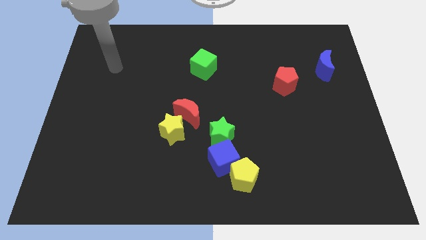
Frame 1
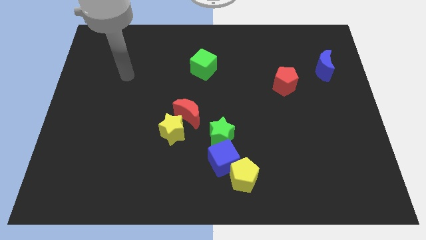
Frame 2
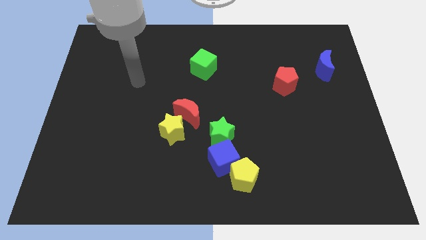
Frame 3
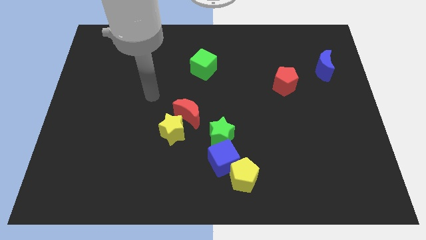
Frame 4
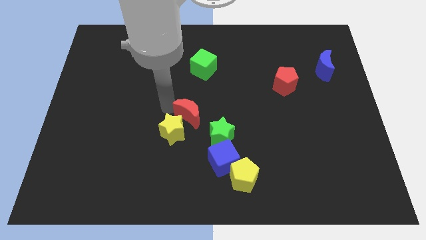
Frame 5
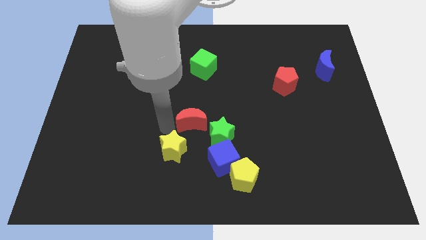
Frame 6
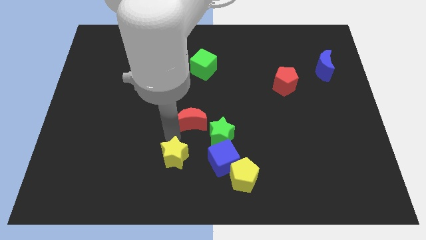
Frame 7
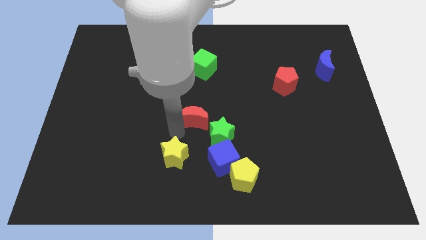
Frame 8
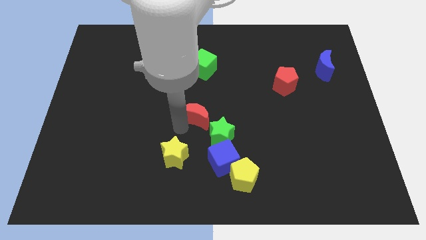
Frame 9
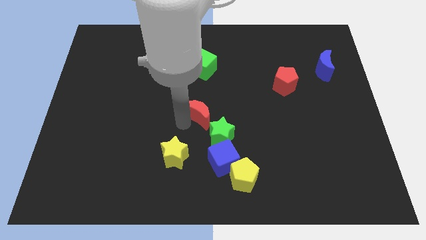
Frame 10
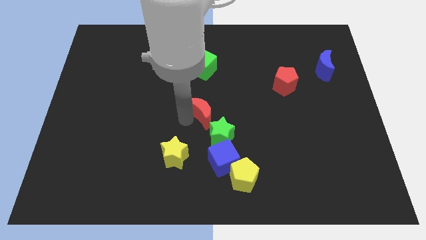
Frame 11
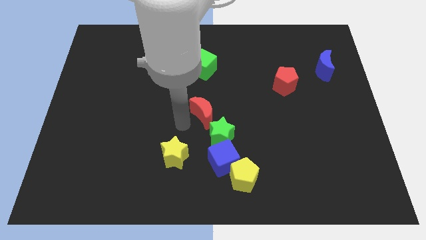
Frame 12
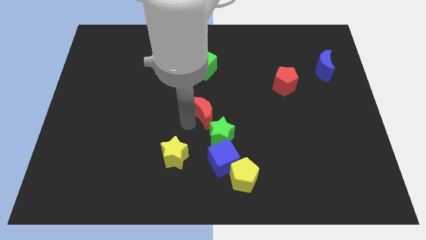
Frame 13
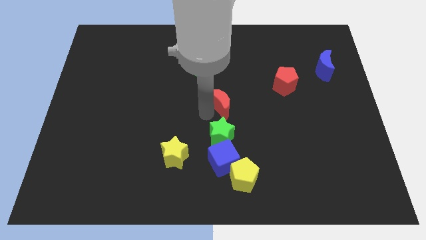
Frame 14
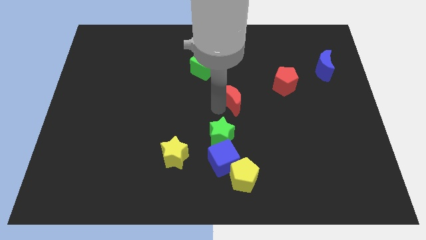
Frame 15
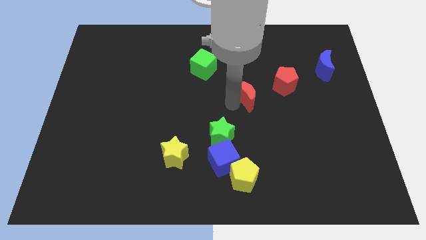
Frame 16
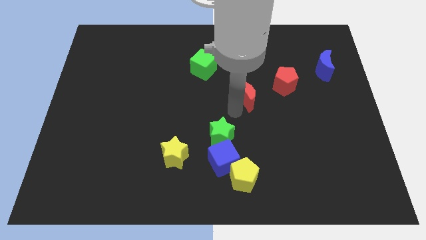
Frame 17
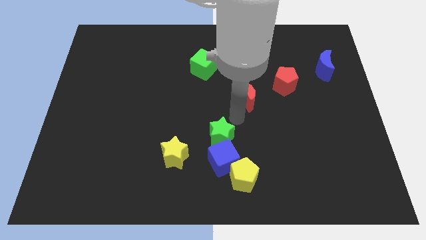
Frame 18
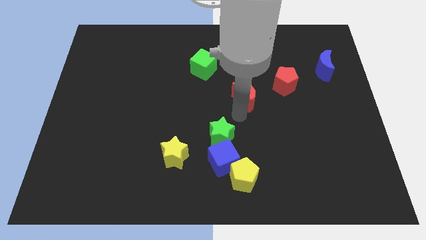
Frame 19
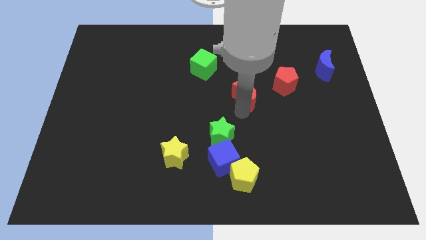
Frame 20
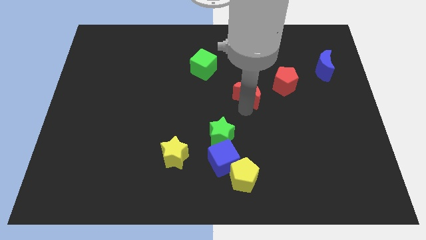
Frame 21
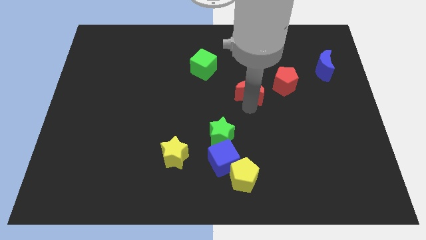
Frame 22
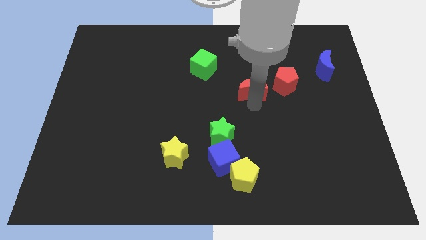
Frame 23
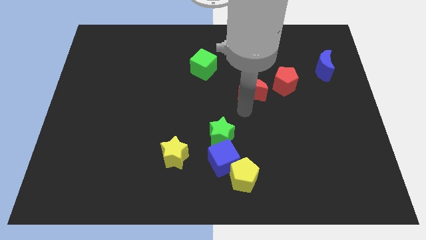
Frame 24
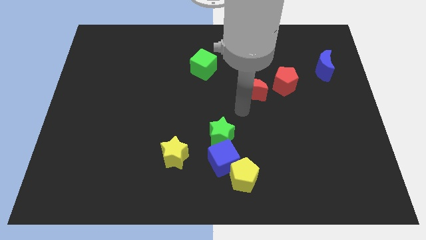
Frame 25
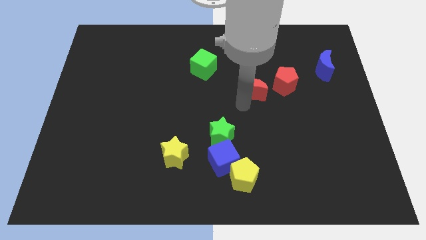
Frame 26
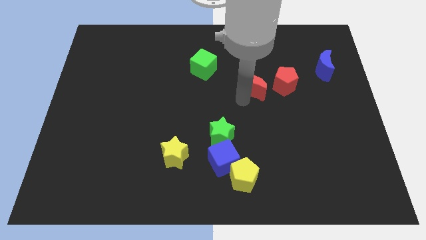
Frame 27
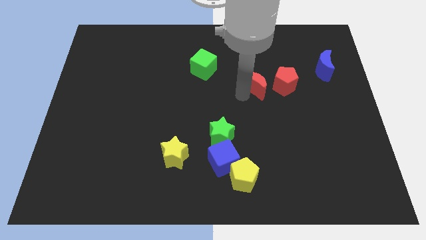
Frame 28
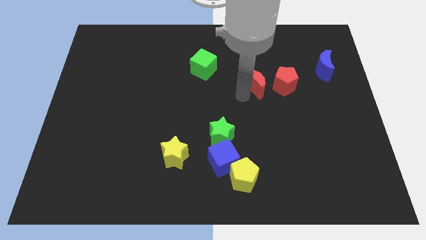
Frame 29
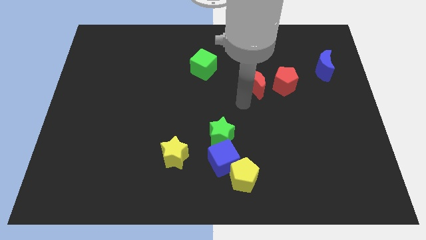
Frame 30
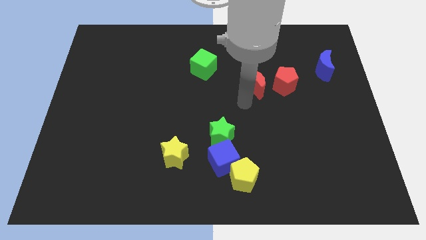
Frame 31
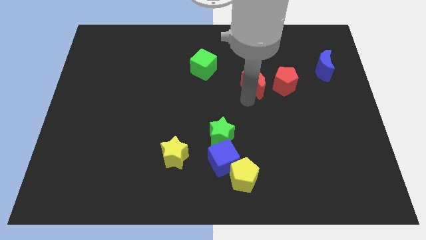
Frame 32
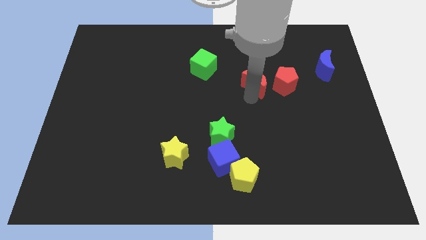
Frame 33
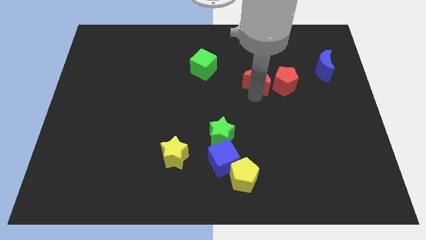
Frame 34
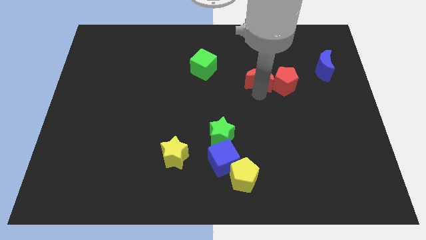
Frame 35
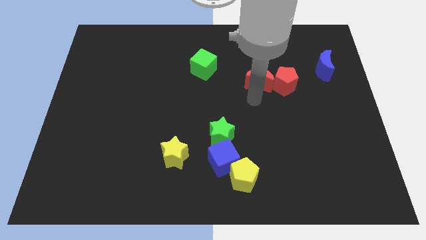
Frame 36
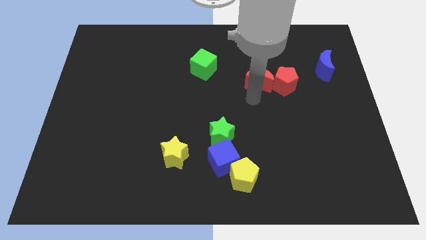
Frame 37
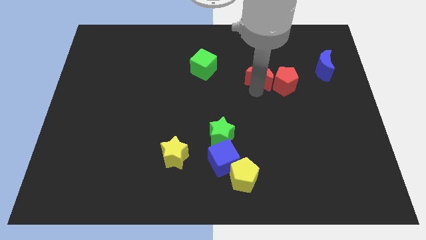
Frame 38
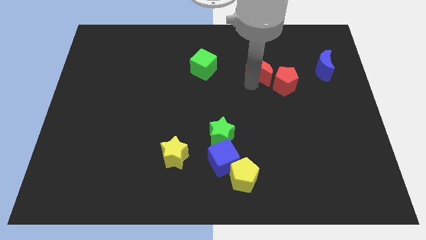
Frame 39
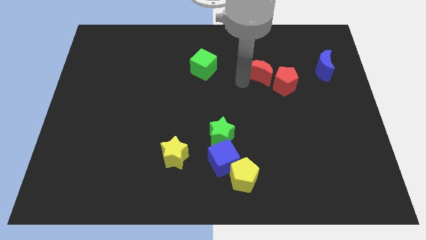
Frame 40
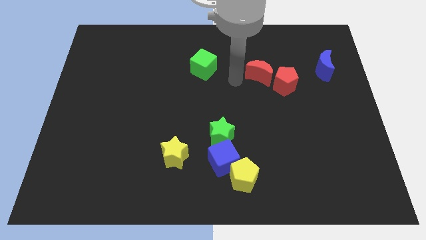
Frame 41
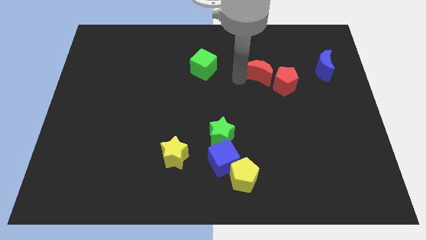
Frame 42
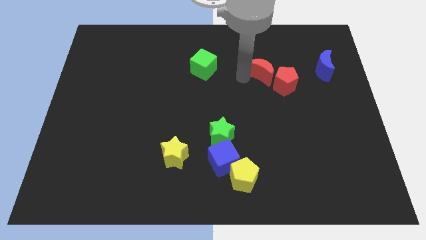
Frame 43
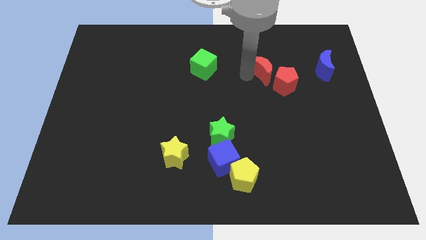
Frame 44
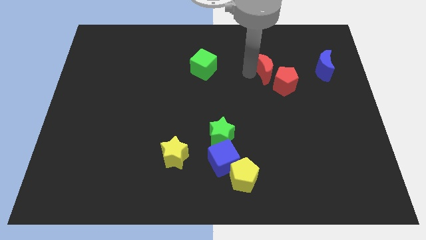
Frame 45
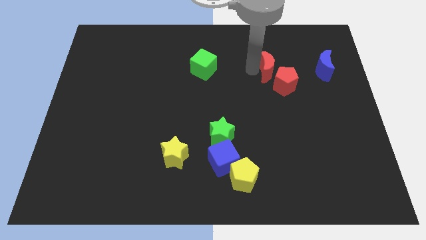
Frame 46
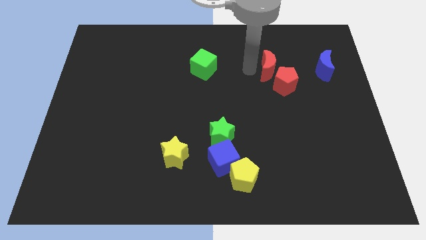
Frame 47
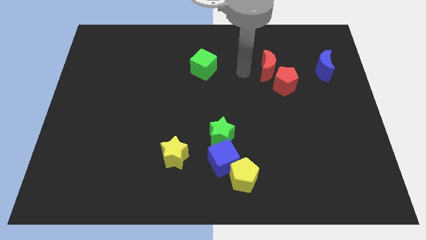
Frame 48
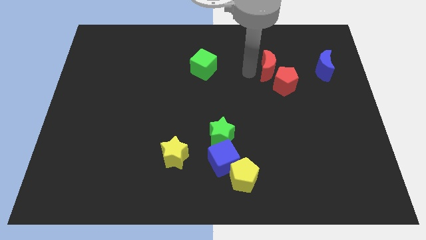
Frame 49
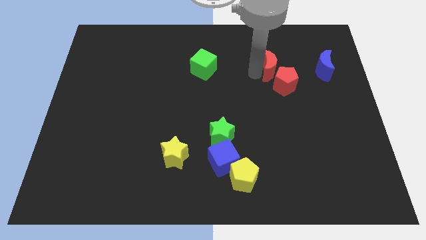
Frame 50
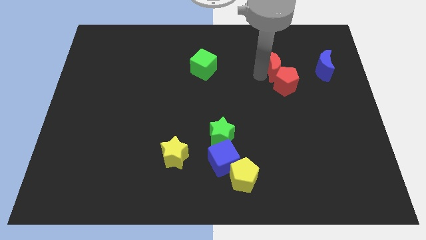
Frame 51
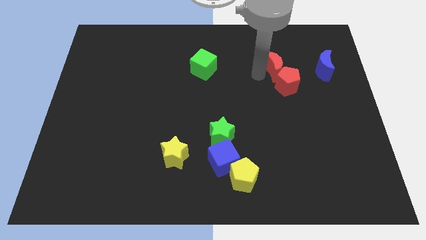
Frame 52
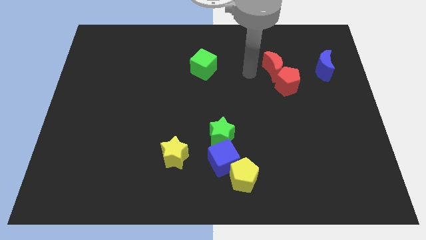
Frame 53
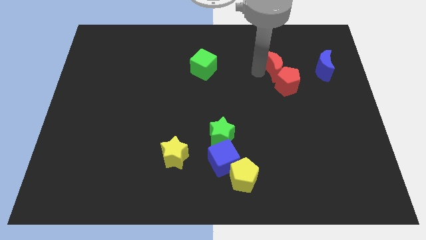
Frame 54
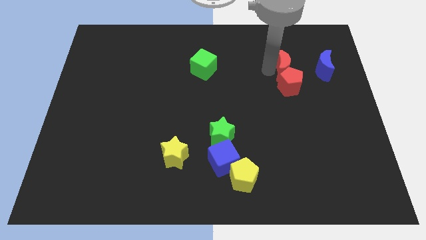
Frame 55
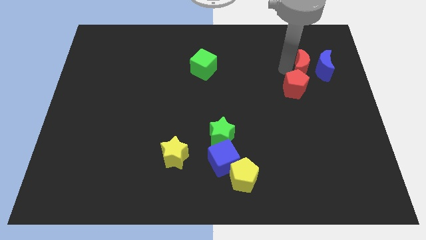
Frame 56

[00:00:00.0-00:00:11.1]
move the red moon to the blue moon

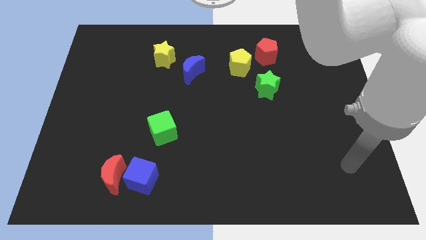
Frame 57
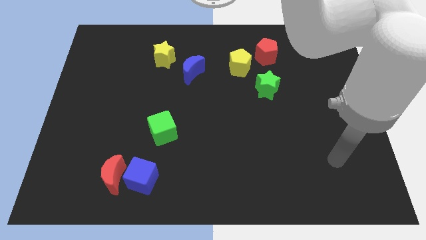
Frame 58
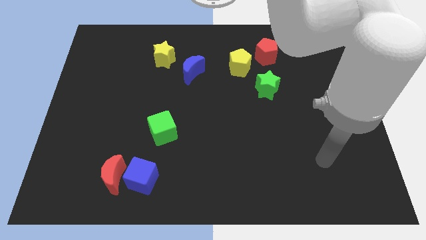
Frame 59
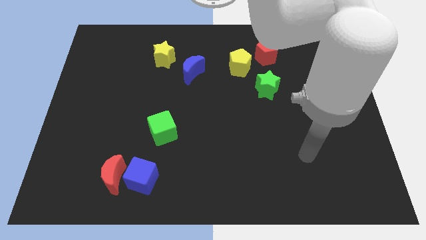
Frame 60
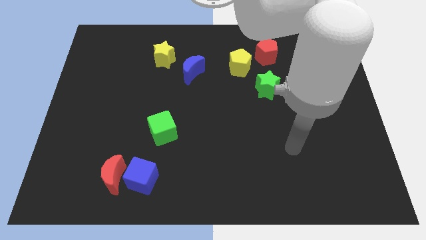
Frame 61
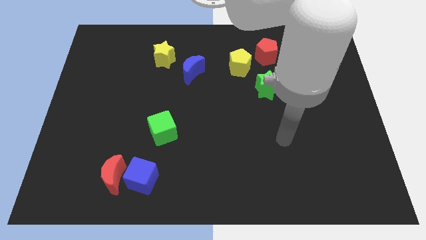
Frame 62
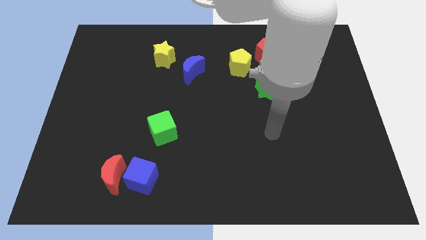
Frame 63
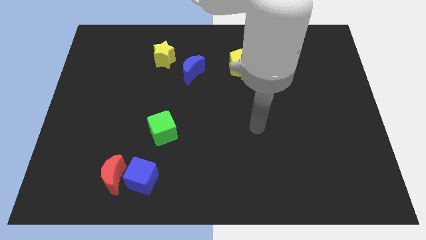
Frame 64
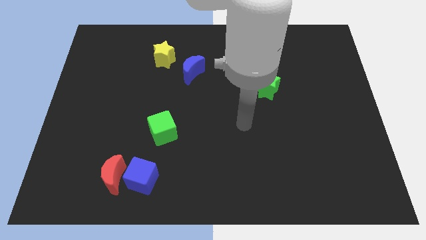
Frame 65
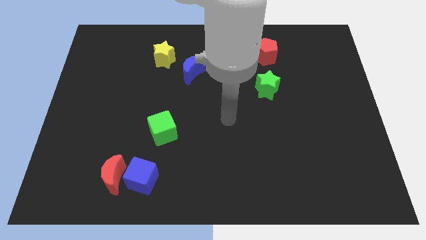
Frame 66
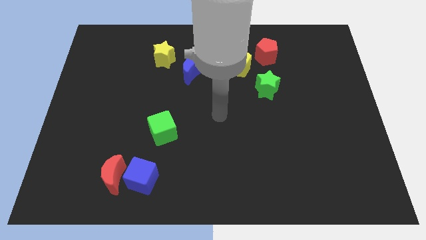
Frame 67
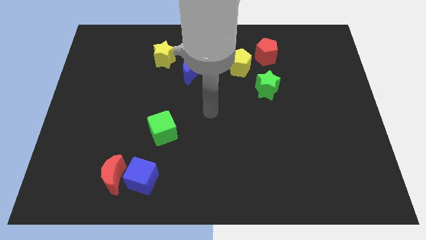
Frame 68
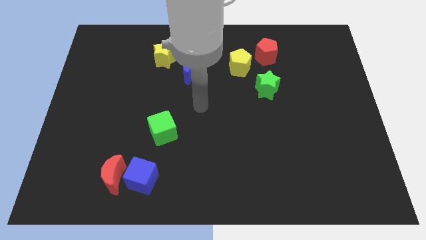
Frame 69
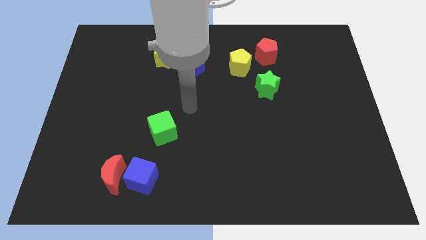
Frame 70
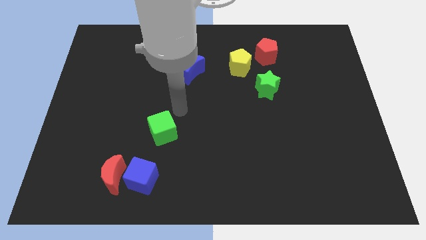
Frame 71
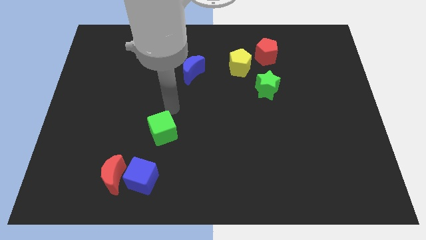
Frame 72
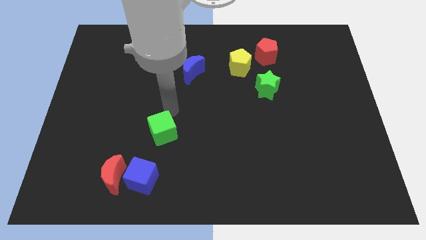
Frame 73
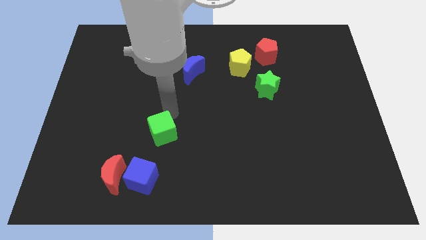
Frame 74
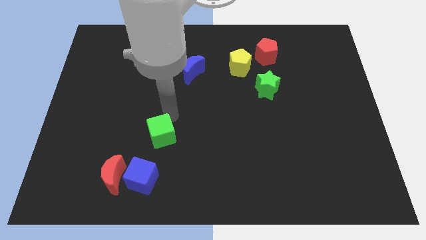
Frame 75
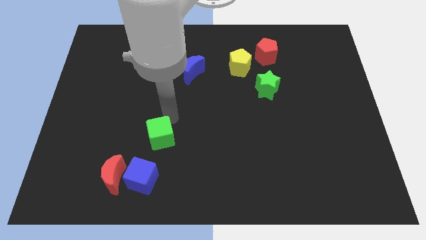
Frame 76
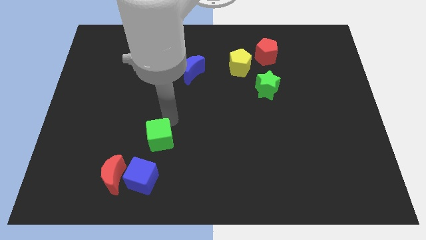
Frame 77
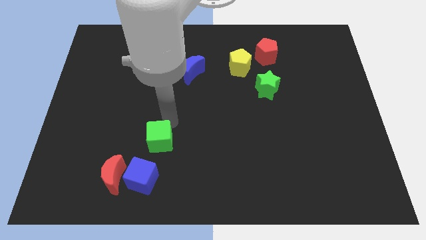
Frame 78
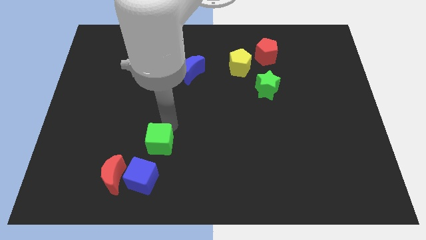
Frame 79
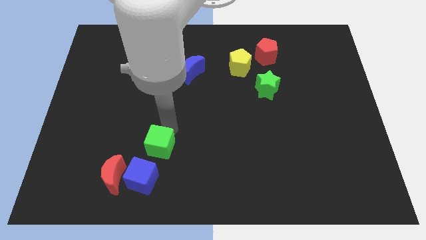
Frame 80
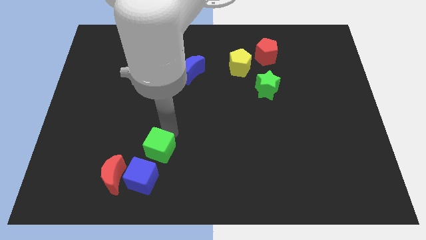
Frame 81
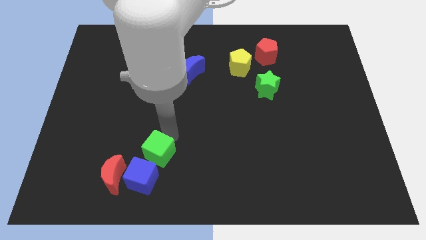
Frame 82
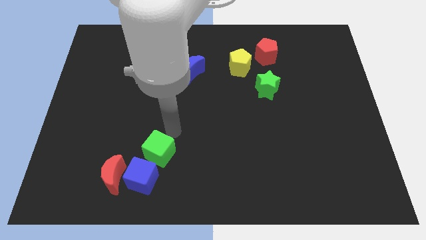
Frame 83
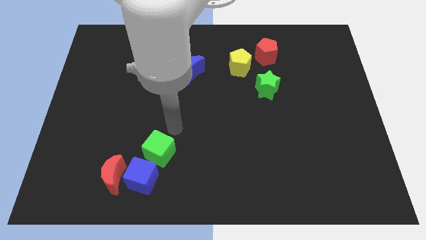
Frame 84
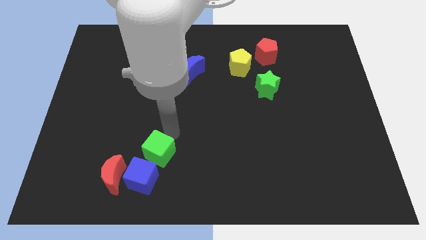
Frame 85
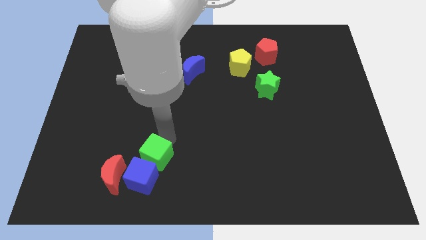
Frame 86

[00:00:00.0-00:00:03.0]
move the green cube to the blue cube
